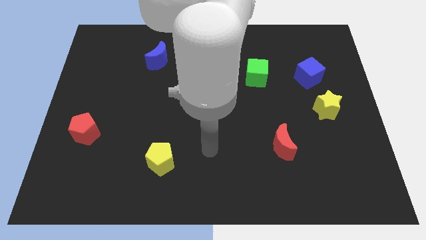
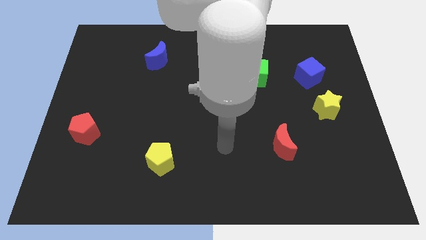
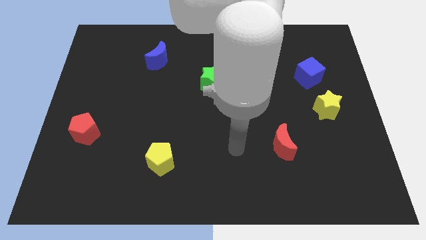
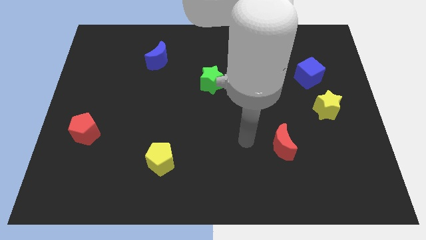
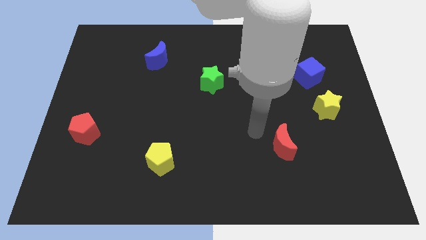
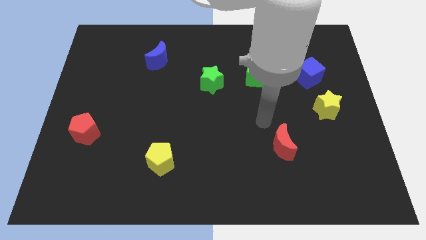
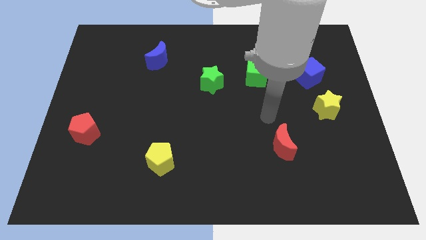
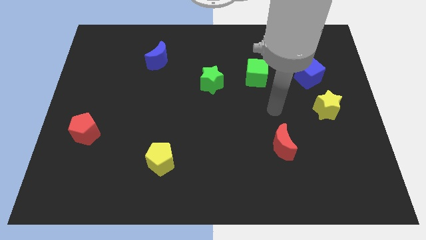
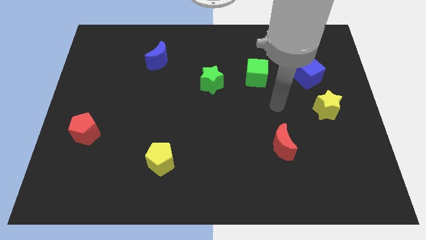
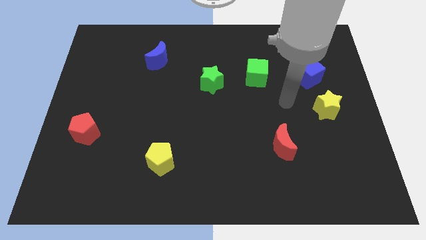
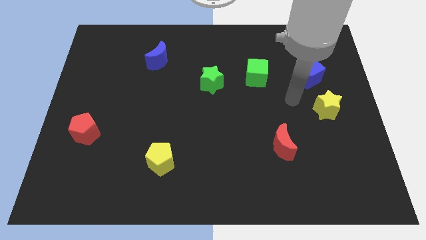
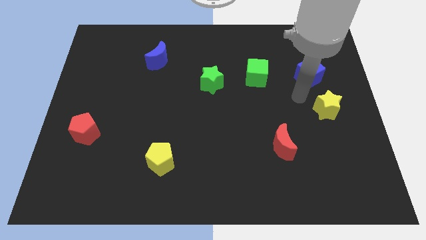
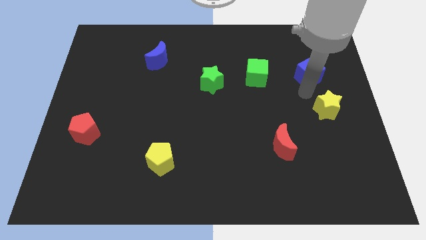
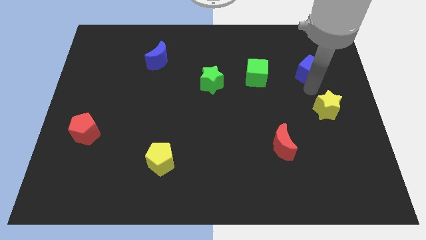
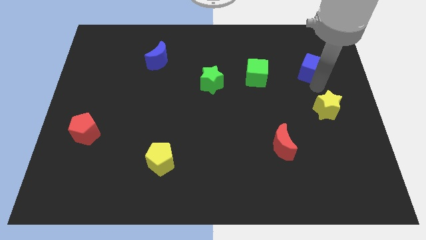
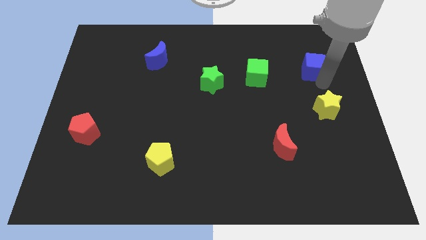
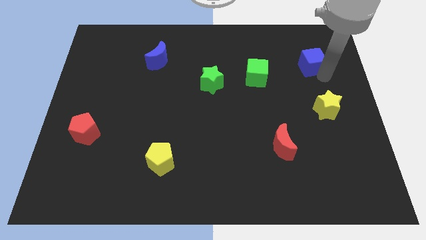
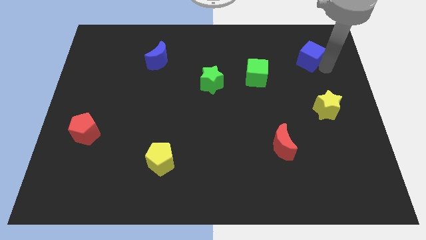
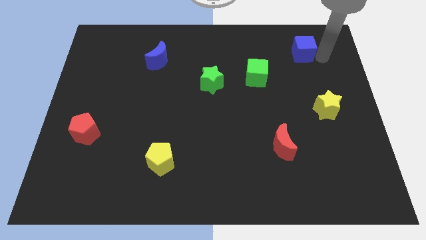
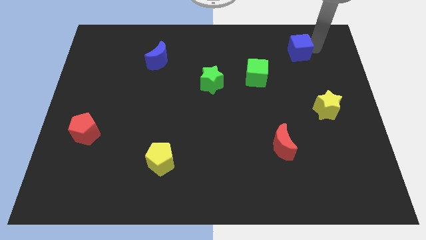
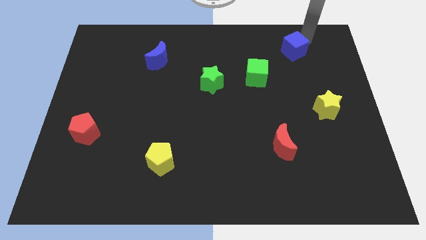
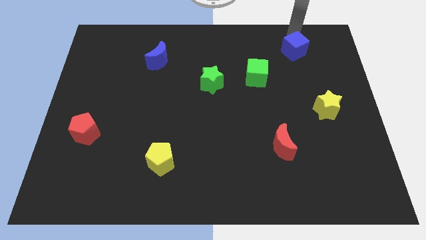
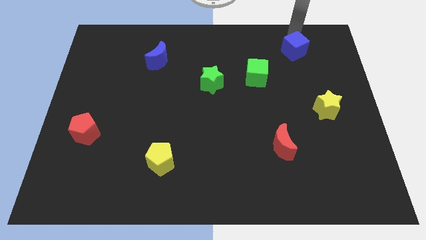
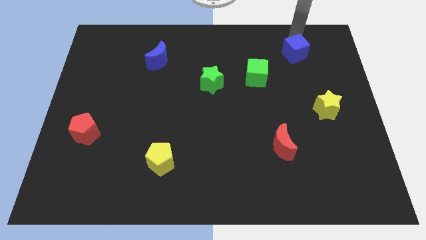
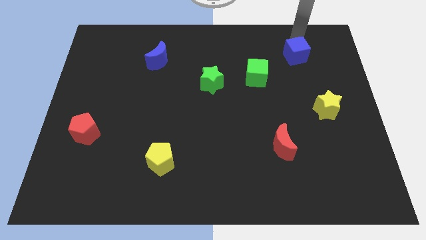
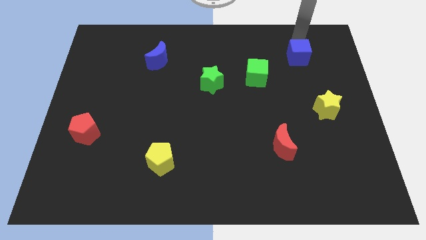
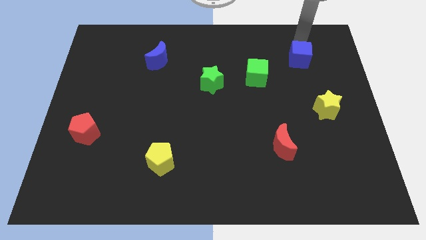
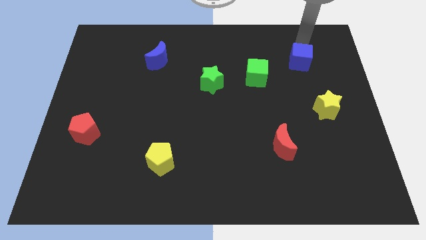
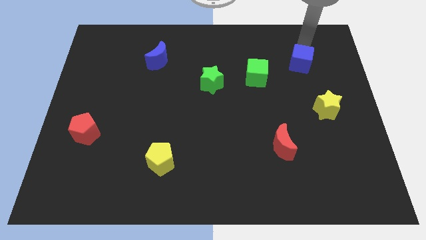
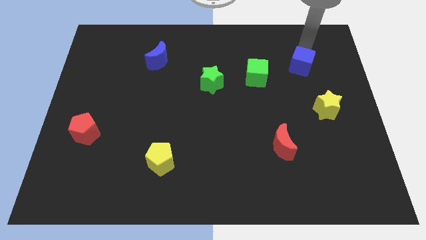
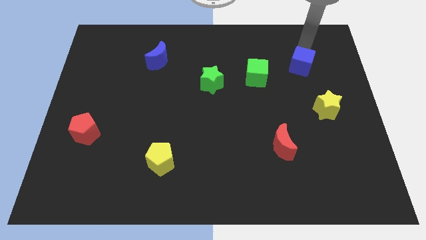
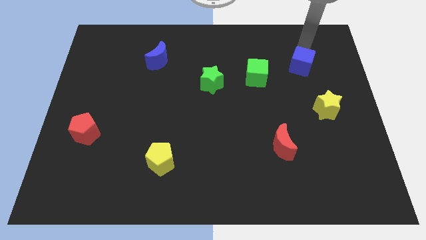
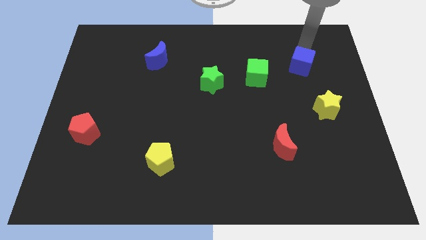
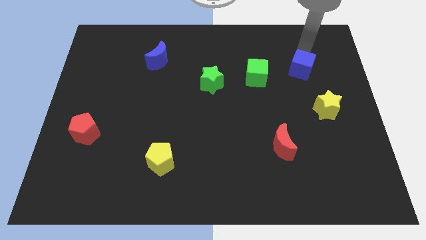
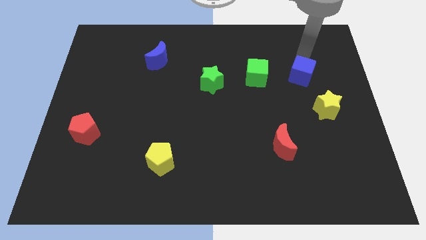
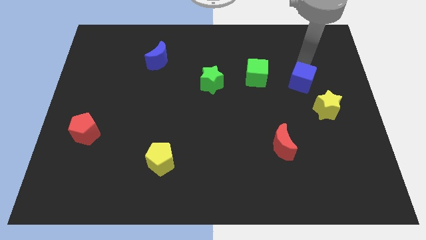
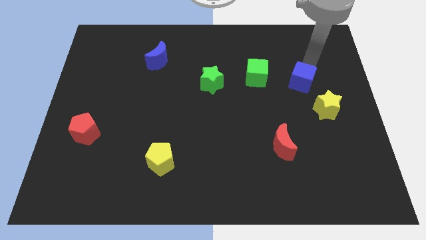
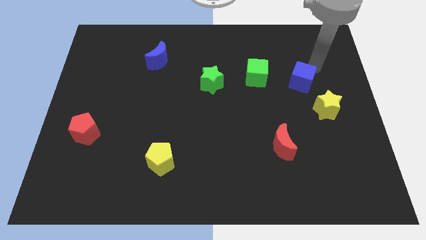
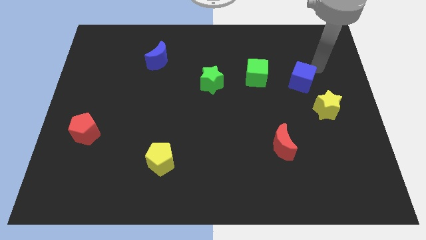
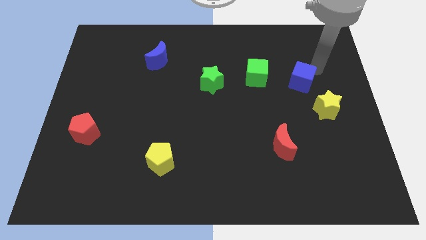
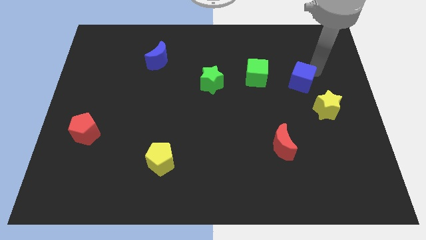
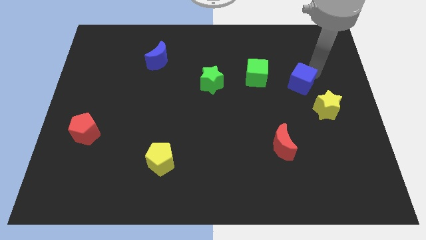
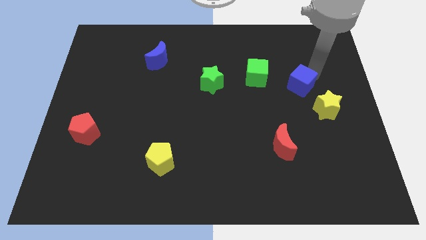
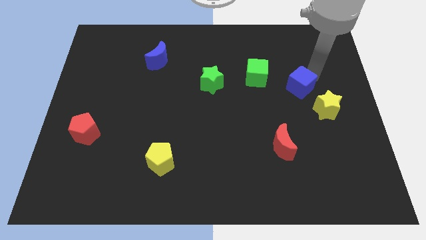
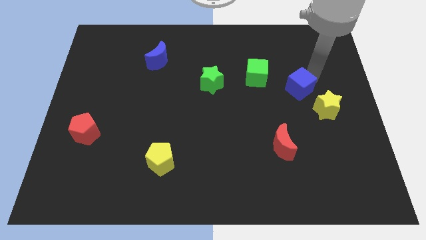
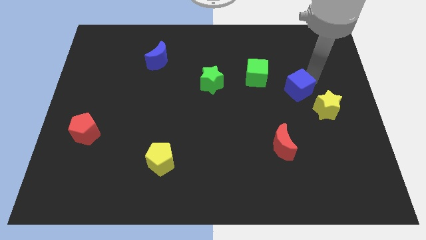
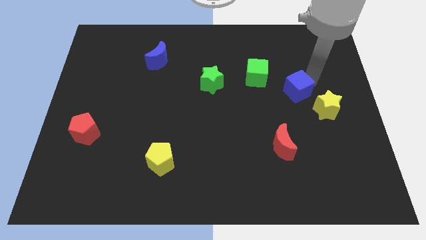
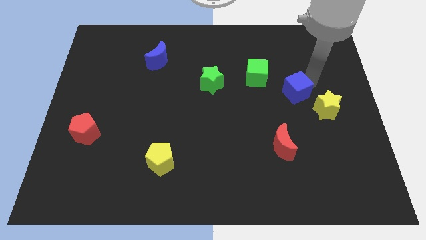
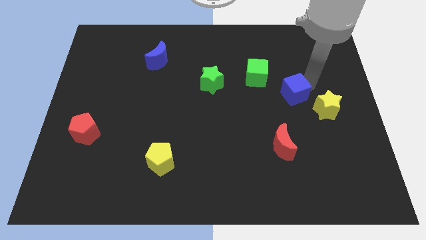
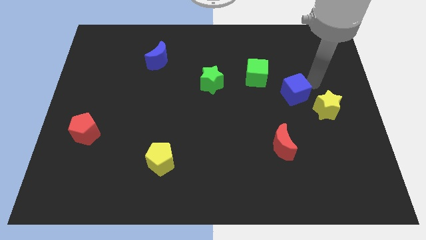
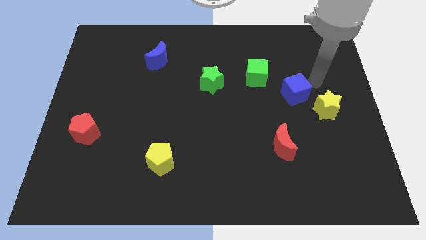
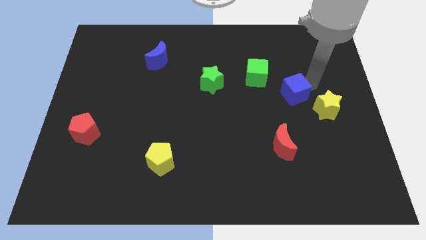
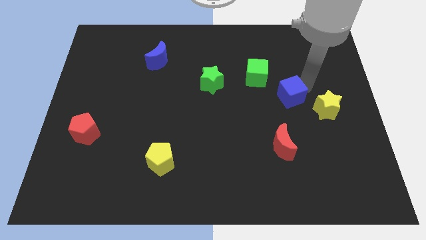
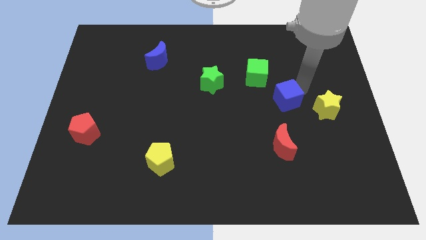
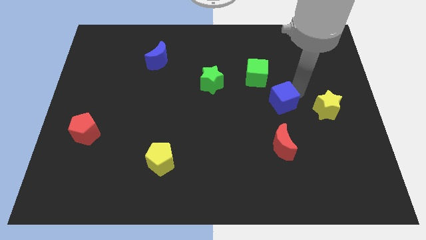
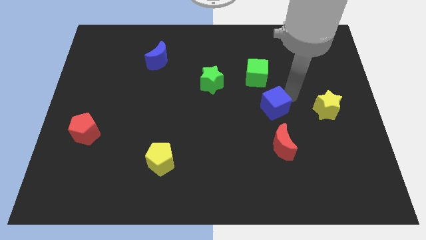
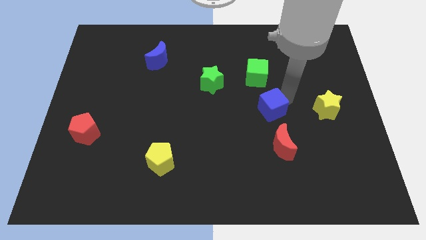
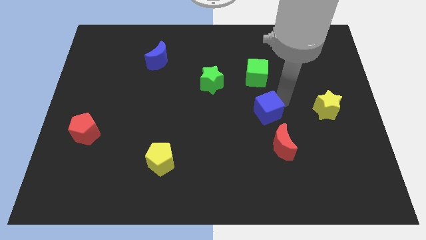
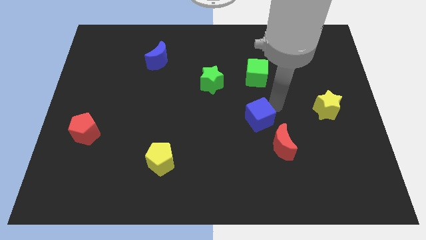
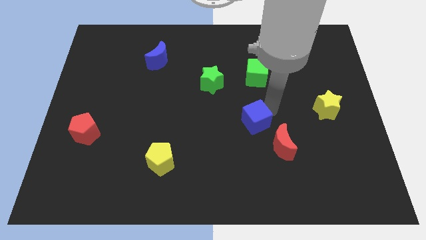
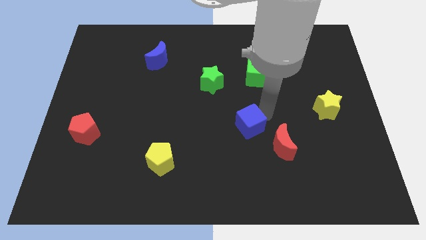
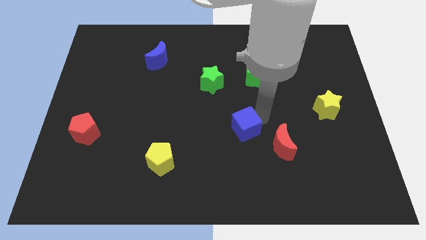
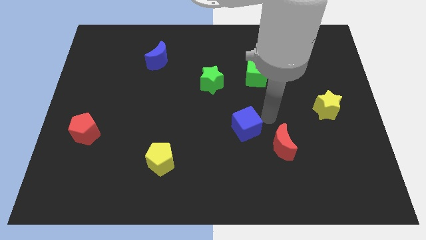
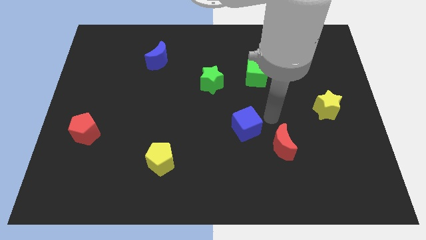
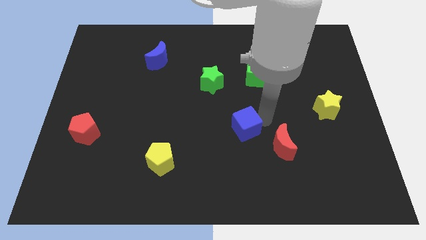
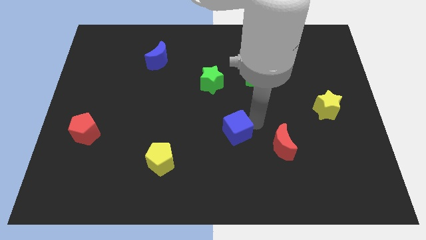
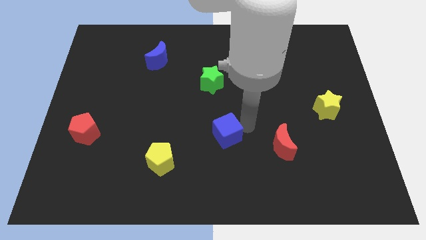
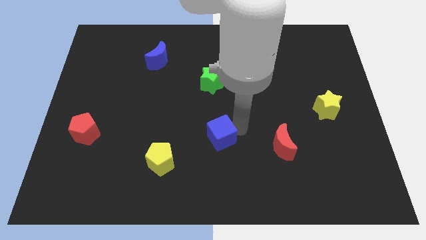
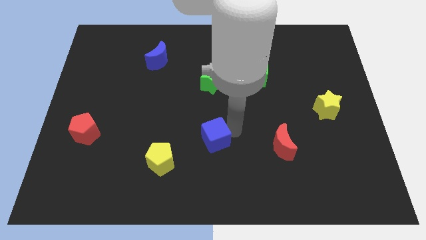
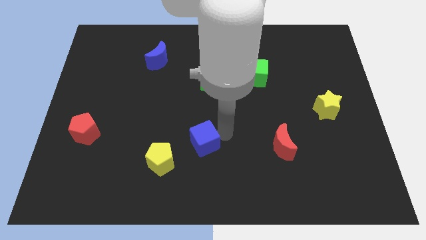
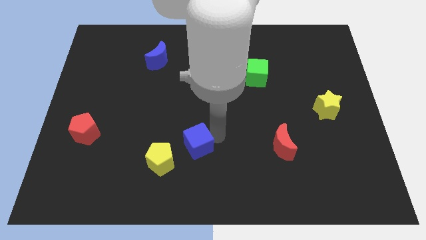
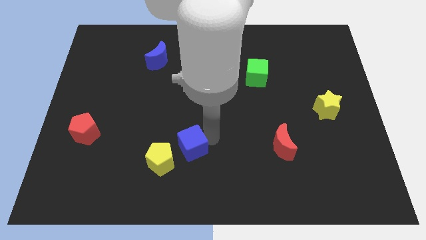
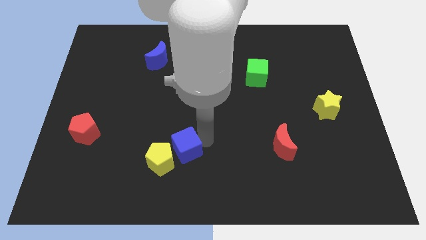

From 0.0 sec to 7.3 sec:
put the blue cube next to the yellow pentagon
